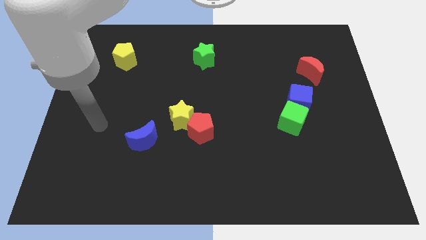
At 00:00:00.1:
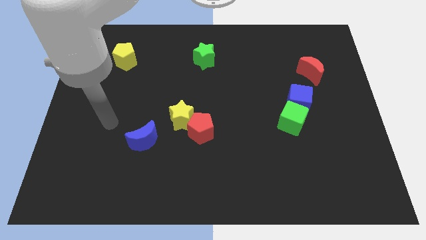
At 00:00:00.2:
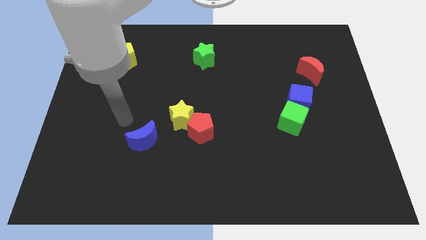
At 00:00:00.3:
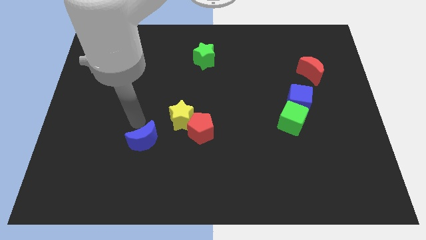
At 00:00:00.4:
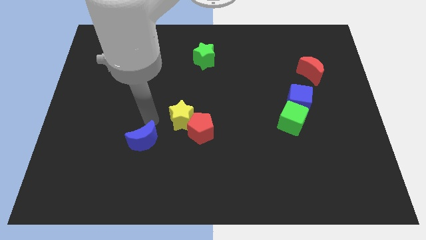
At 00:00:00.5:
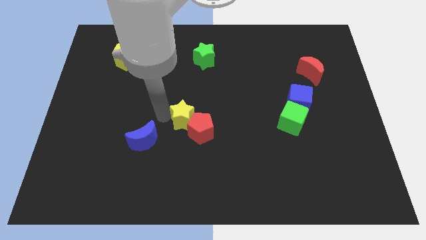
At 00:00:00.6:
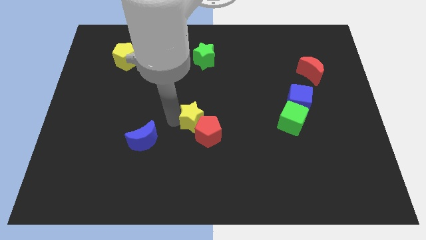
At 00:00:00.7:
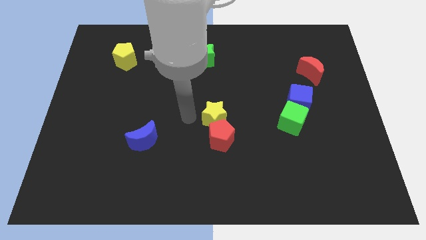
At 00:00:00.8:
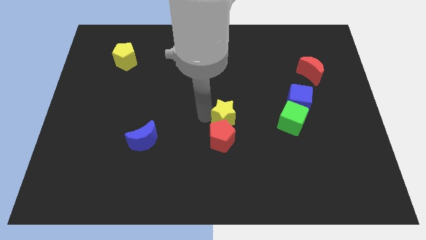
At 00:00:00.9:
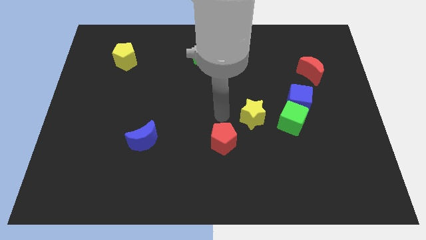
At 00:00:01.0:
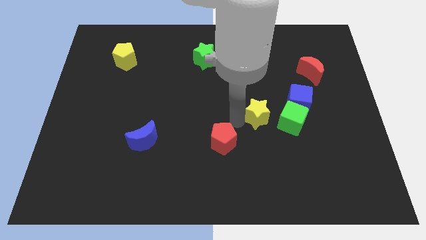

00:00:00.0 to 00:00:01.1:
pull the red pentagon apart from the yellow star

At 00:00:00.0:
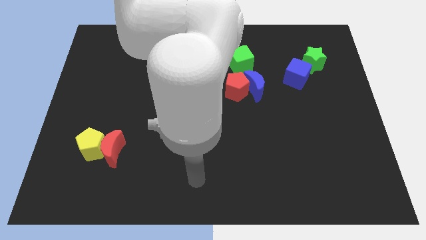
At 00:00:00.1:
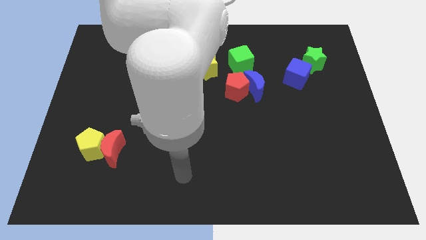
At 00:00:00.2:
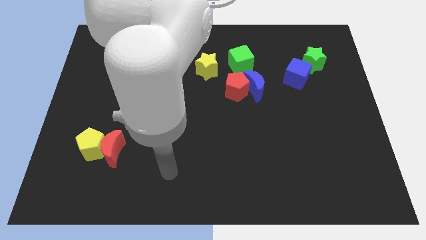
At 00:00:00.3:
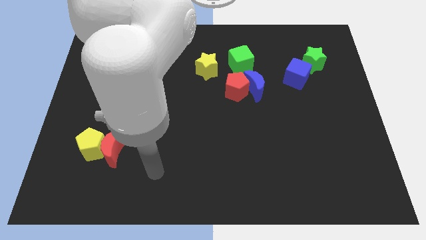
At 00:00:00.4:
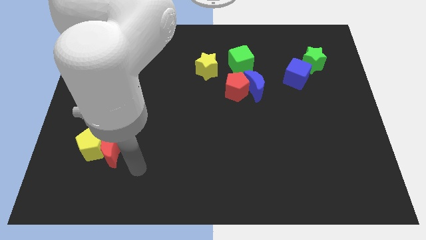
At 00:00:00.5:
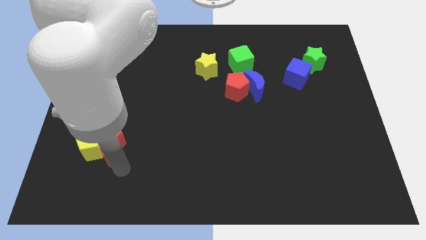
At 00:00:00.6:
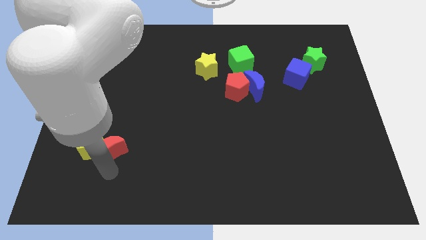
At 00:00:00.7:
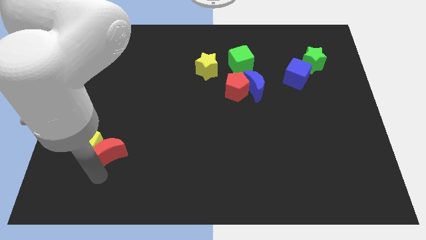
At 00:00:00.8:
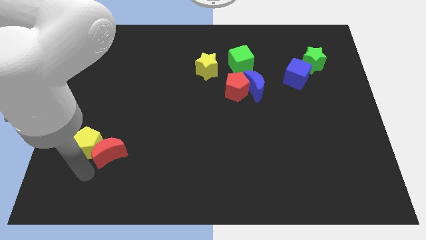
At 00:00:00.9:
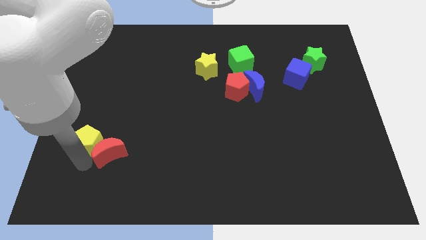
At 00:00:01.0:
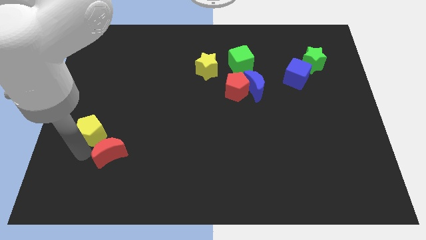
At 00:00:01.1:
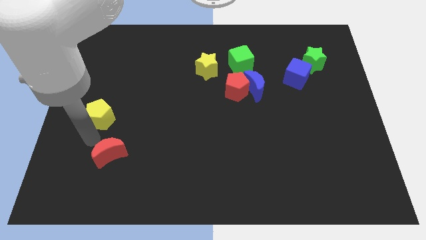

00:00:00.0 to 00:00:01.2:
pull the red moon apart from the yellow pentagon

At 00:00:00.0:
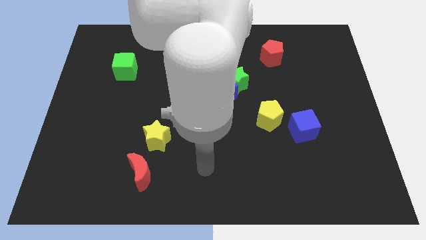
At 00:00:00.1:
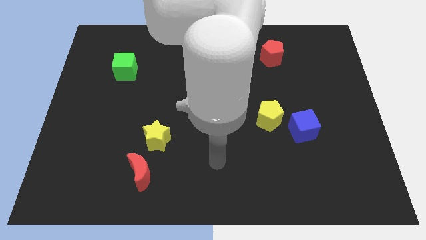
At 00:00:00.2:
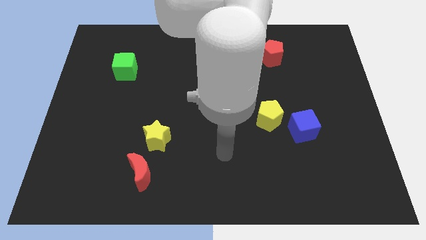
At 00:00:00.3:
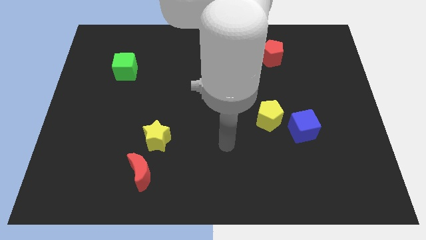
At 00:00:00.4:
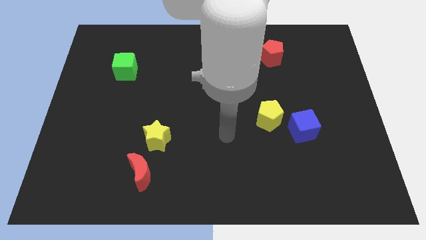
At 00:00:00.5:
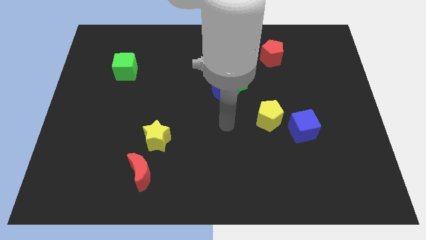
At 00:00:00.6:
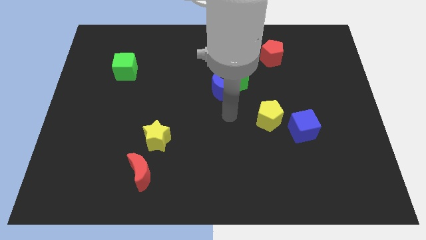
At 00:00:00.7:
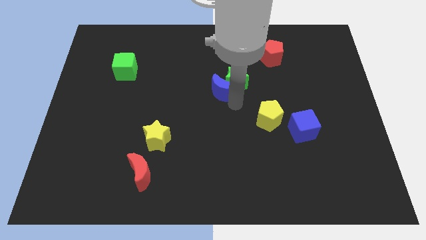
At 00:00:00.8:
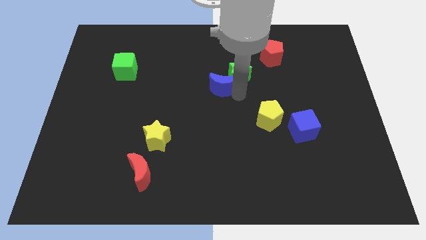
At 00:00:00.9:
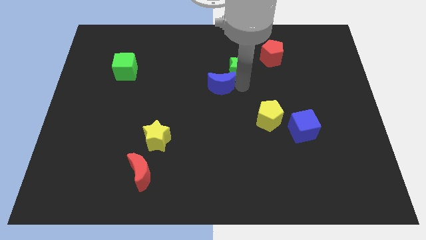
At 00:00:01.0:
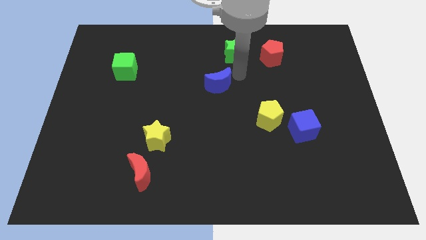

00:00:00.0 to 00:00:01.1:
separate the blue moon from the green star

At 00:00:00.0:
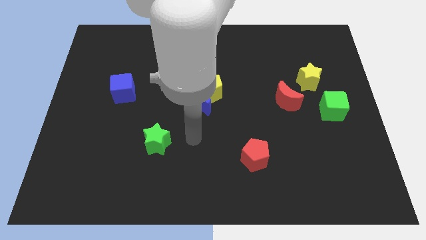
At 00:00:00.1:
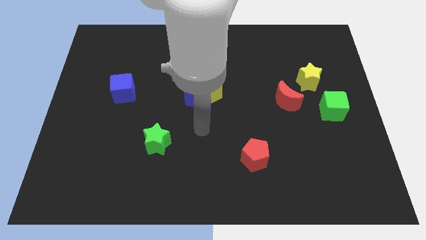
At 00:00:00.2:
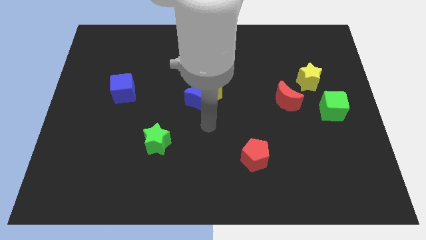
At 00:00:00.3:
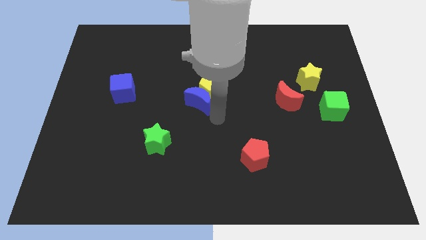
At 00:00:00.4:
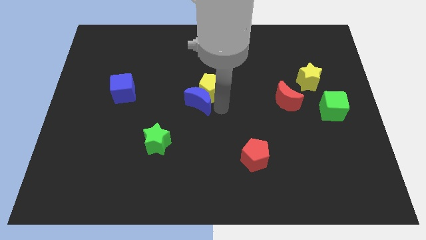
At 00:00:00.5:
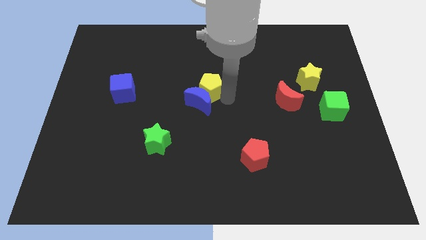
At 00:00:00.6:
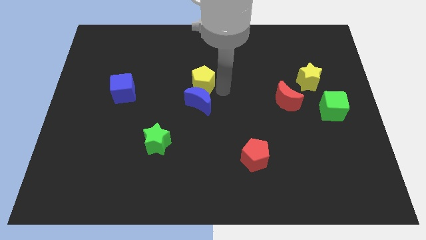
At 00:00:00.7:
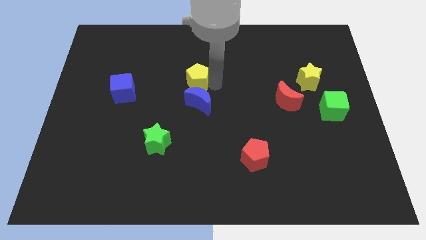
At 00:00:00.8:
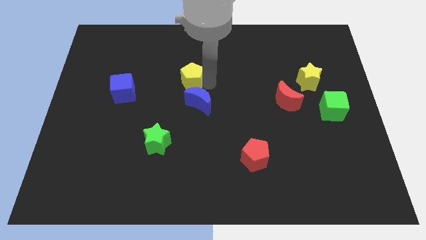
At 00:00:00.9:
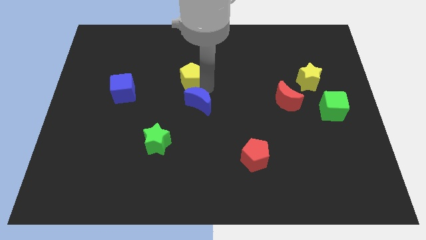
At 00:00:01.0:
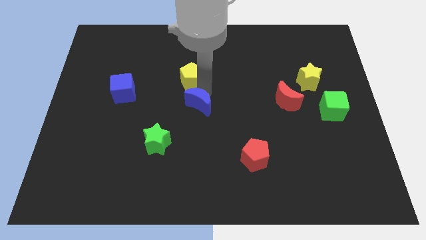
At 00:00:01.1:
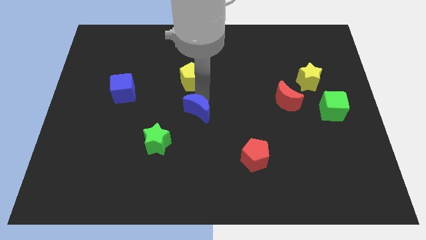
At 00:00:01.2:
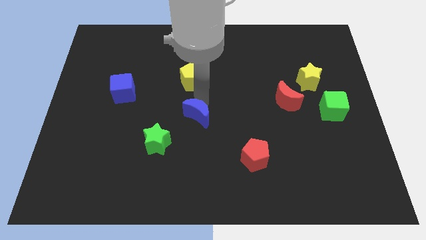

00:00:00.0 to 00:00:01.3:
pull the blue moon apart from the yellow pentagon

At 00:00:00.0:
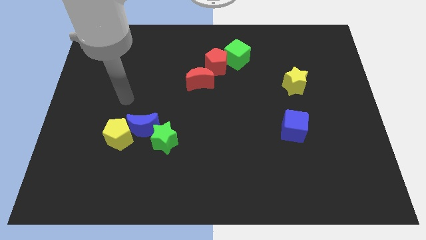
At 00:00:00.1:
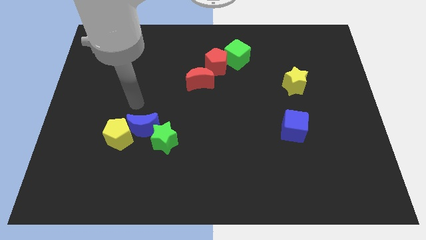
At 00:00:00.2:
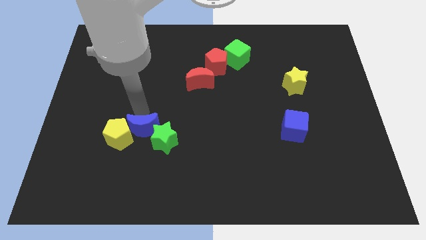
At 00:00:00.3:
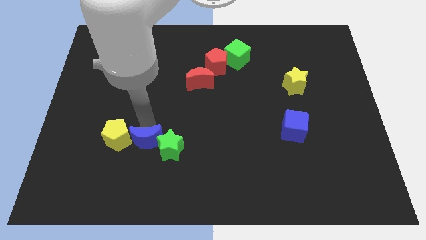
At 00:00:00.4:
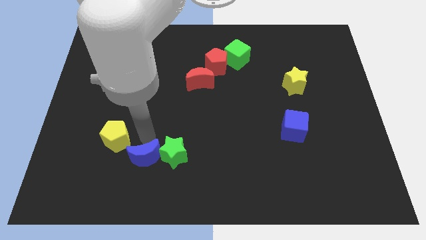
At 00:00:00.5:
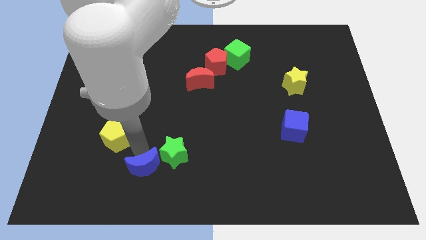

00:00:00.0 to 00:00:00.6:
pull the yellow pentagon apart from the blue moon

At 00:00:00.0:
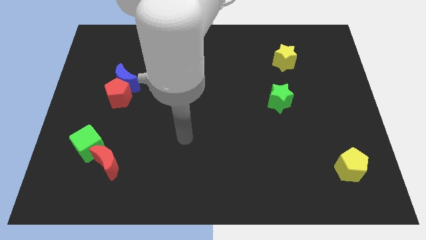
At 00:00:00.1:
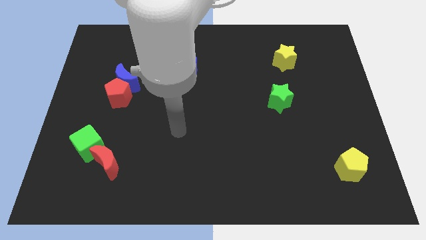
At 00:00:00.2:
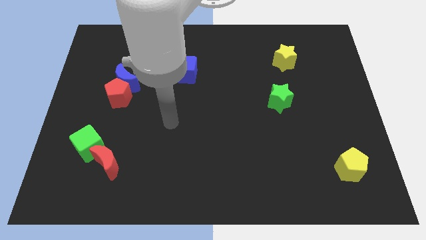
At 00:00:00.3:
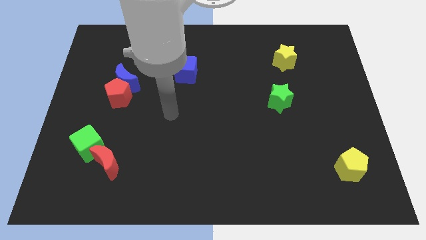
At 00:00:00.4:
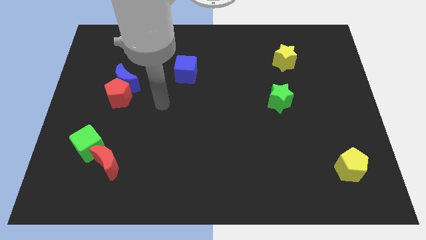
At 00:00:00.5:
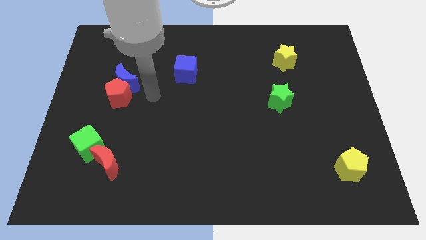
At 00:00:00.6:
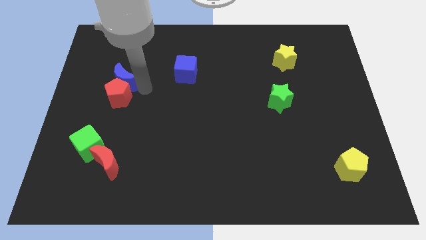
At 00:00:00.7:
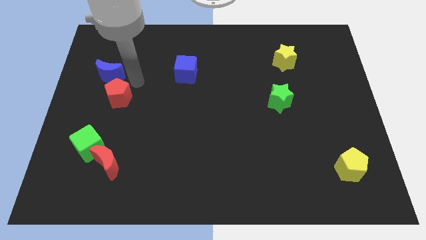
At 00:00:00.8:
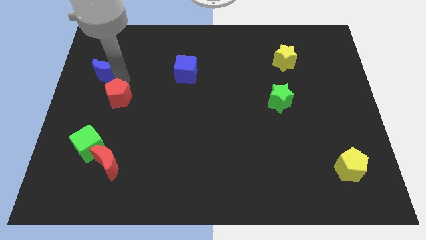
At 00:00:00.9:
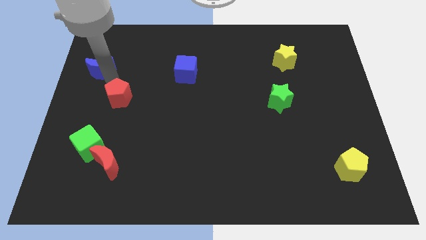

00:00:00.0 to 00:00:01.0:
pull the red pentagon apart from the blue moon

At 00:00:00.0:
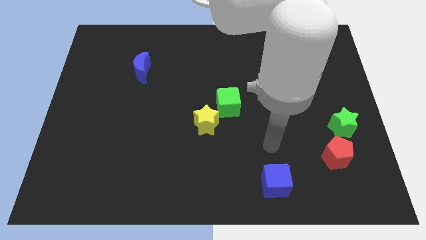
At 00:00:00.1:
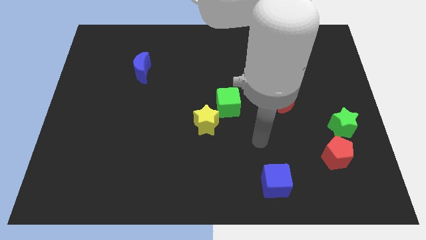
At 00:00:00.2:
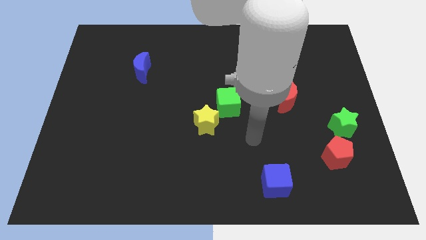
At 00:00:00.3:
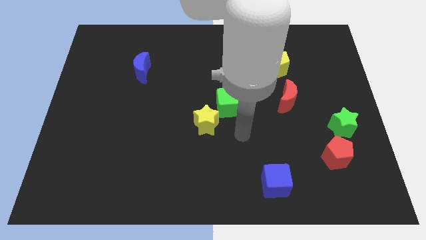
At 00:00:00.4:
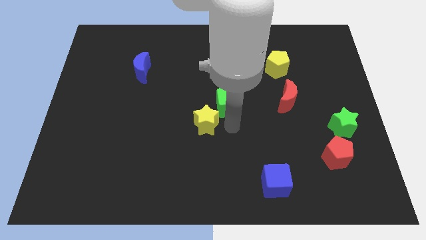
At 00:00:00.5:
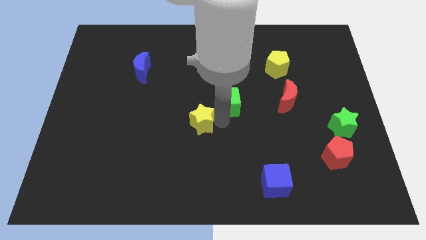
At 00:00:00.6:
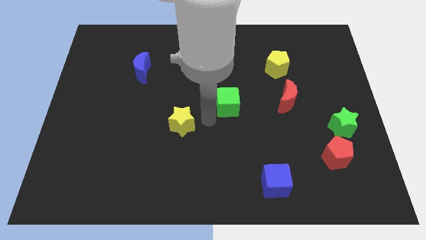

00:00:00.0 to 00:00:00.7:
separate the green cube from the yellow star

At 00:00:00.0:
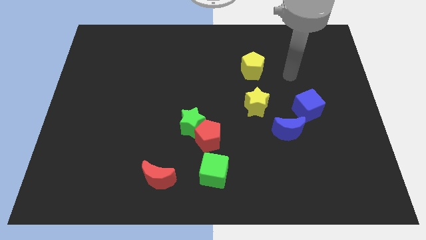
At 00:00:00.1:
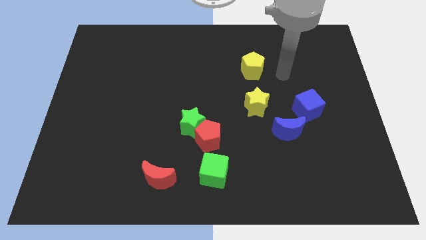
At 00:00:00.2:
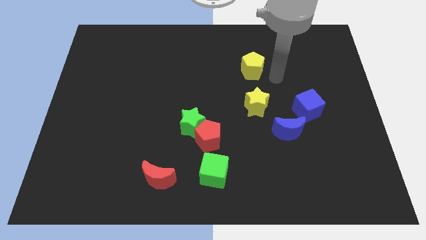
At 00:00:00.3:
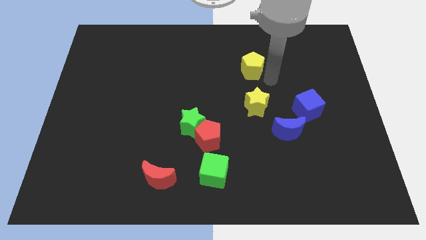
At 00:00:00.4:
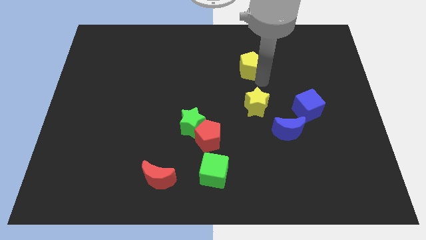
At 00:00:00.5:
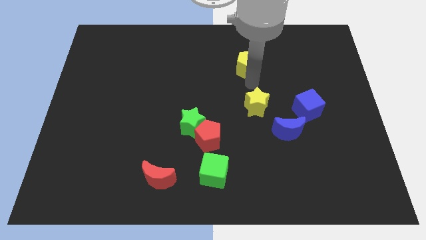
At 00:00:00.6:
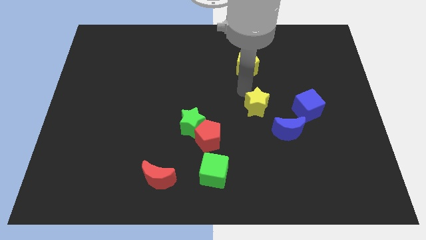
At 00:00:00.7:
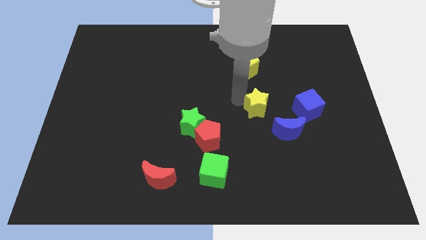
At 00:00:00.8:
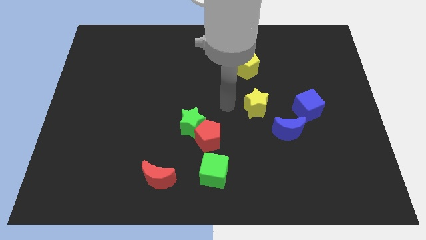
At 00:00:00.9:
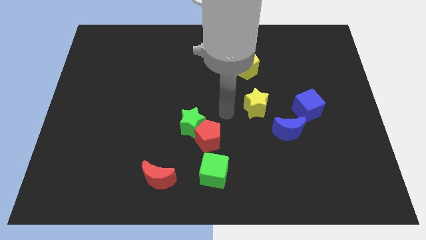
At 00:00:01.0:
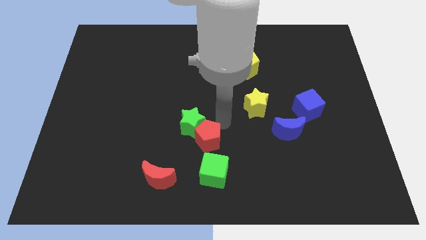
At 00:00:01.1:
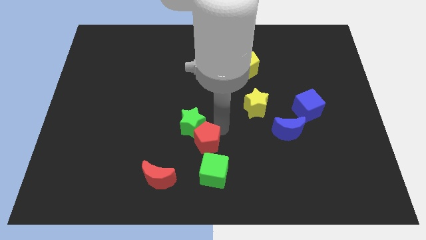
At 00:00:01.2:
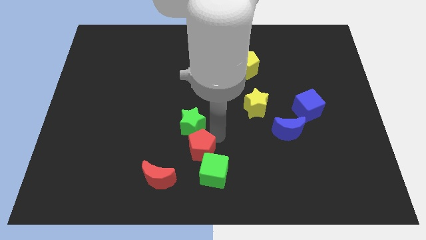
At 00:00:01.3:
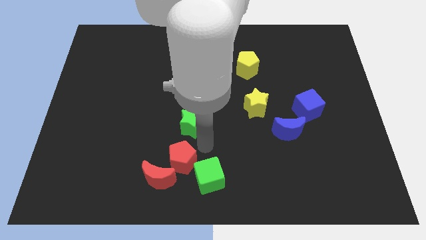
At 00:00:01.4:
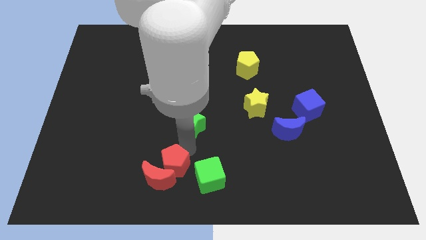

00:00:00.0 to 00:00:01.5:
pull the green star apart from the red pentagon

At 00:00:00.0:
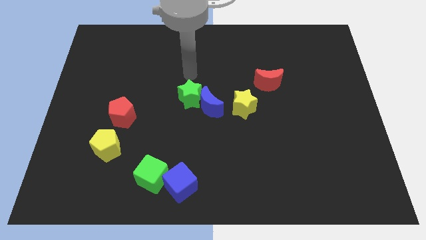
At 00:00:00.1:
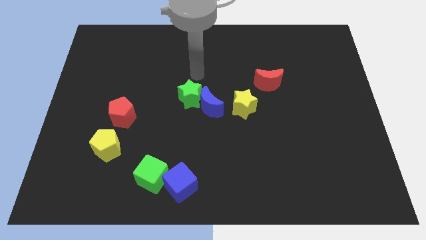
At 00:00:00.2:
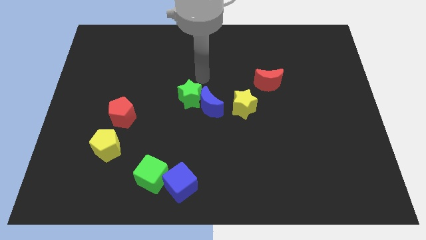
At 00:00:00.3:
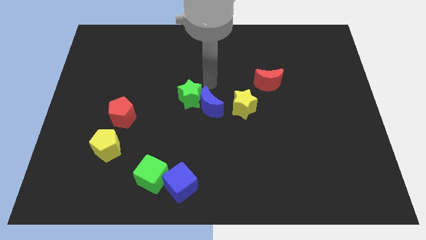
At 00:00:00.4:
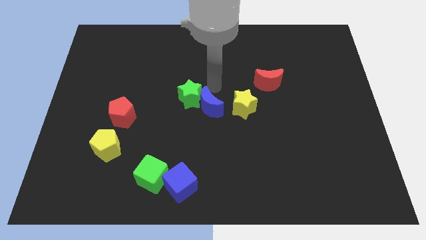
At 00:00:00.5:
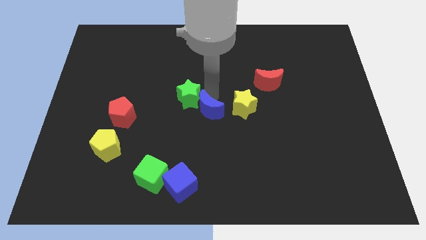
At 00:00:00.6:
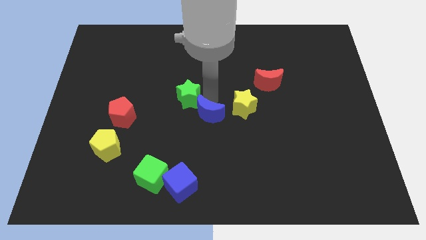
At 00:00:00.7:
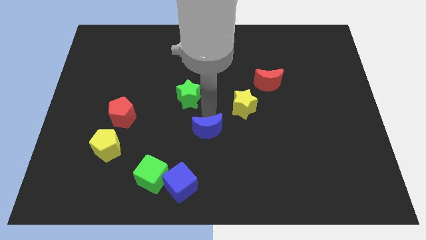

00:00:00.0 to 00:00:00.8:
separate the green star from the blue moon
